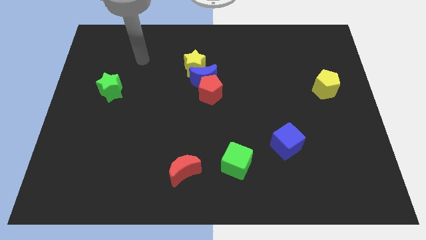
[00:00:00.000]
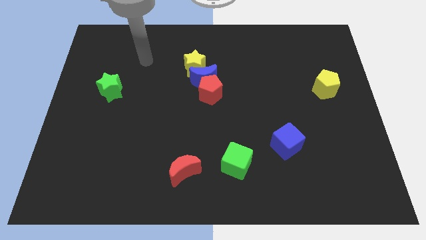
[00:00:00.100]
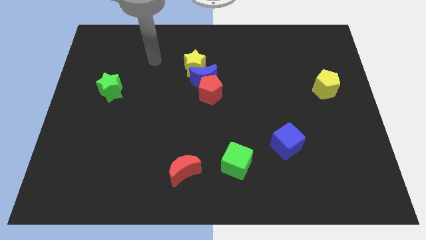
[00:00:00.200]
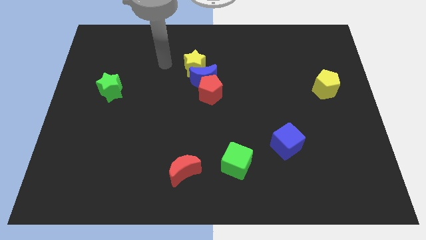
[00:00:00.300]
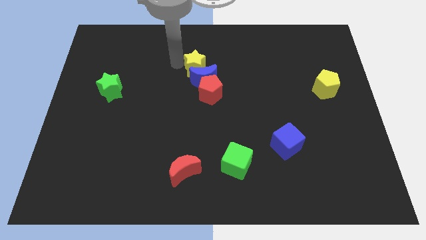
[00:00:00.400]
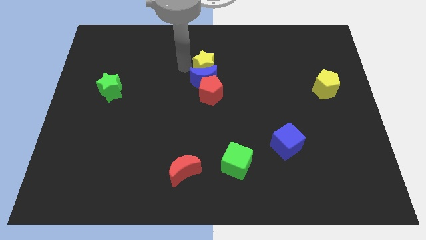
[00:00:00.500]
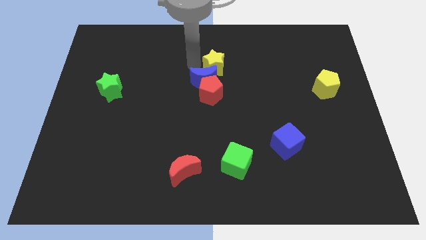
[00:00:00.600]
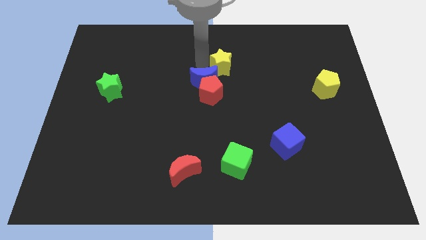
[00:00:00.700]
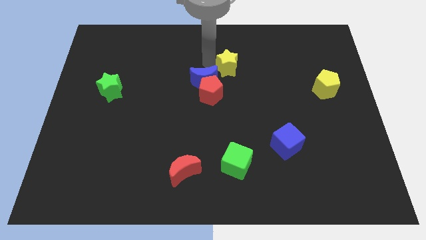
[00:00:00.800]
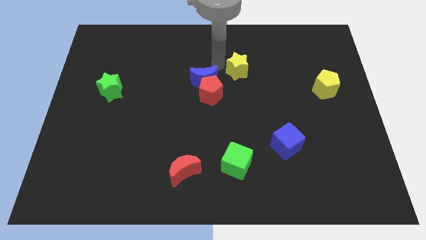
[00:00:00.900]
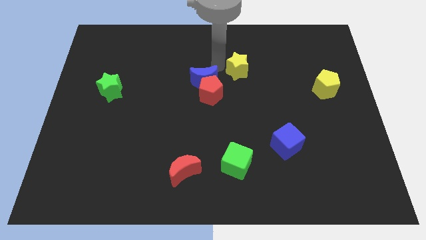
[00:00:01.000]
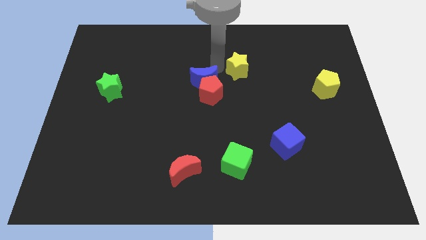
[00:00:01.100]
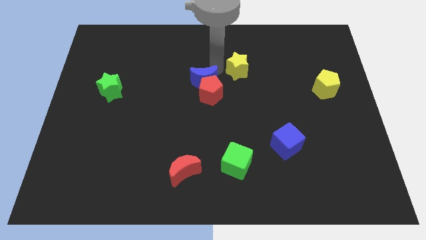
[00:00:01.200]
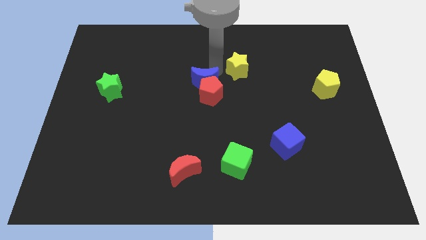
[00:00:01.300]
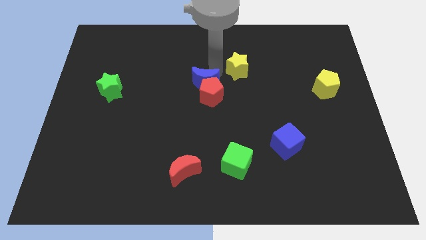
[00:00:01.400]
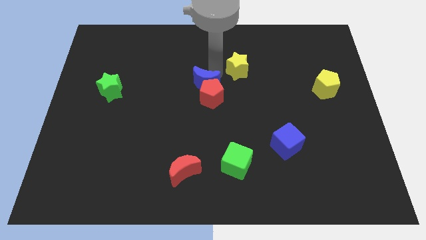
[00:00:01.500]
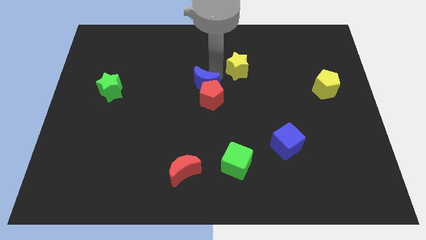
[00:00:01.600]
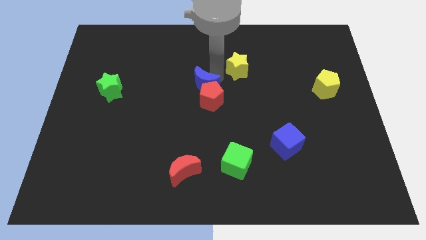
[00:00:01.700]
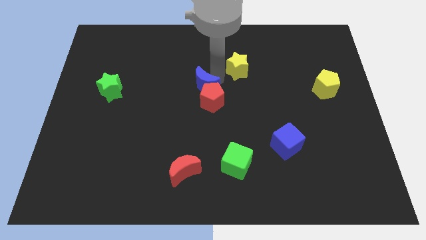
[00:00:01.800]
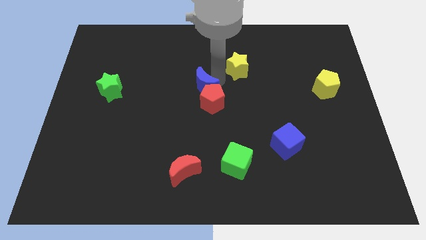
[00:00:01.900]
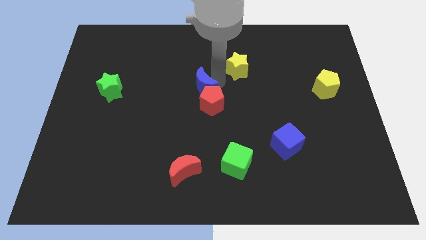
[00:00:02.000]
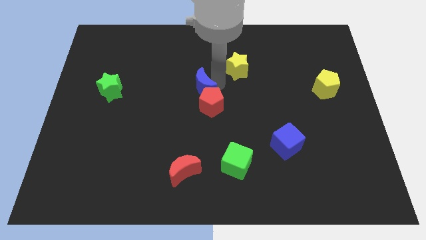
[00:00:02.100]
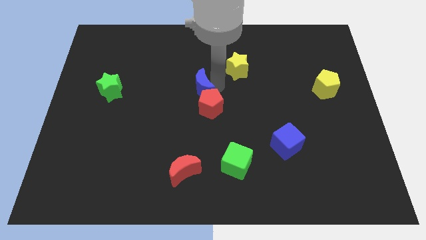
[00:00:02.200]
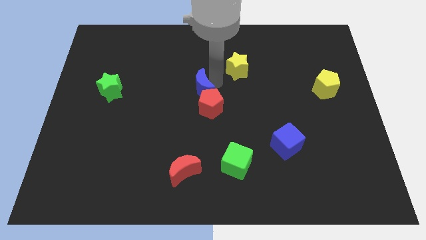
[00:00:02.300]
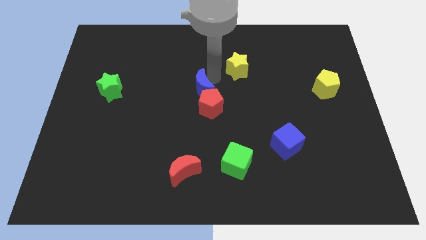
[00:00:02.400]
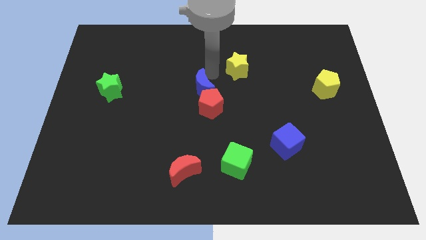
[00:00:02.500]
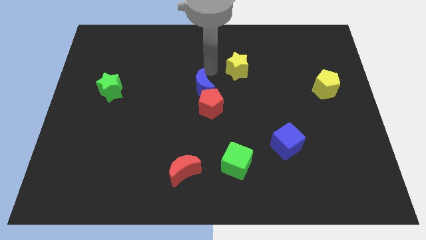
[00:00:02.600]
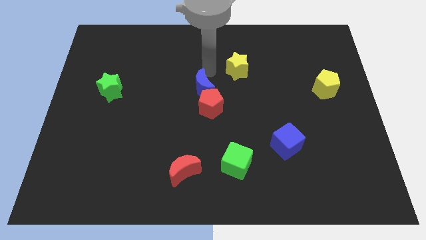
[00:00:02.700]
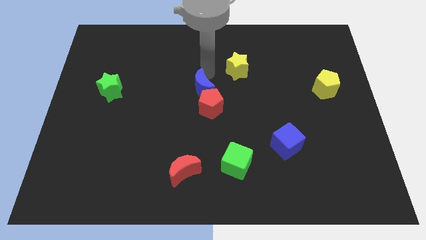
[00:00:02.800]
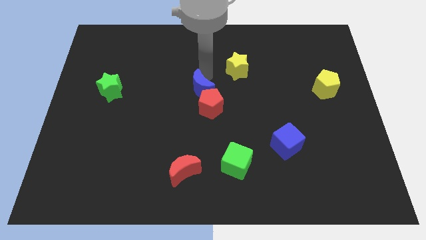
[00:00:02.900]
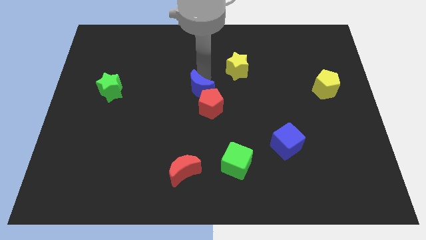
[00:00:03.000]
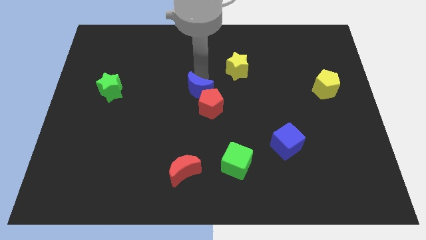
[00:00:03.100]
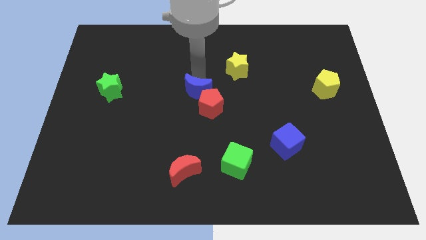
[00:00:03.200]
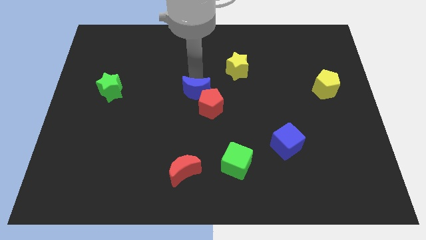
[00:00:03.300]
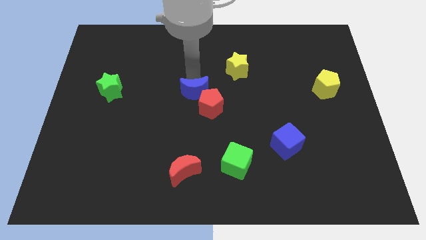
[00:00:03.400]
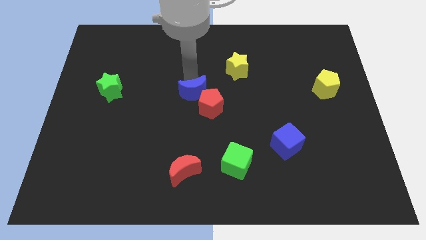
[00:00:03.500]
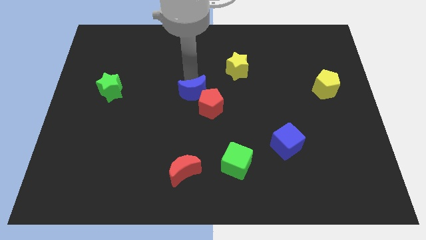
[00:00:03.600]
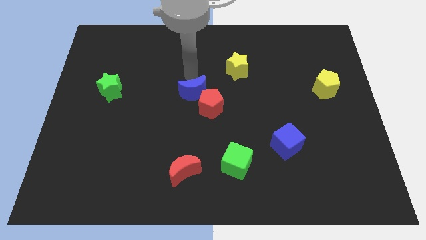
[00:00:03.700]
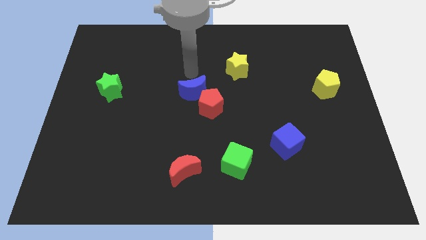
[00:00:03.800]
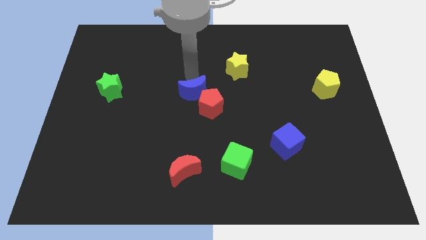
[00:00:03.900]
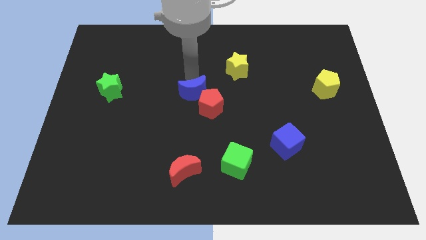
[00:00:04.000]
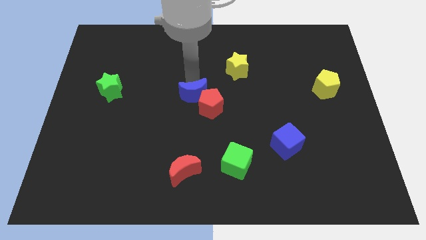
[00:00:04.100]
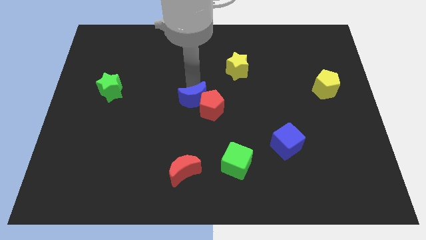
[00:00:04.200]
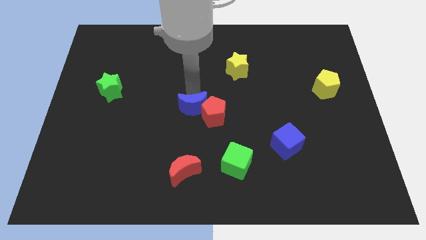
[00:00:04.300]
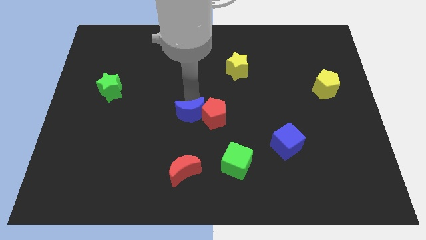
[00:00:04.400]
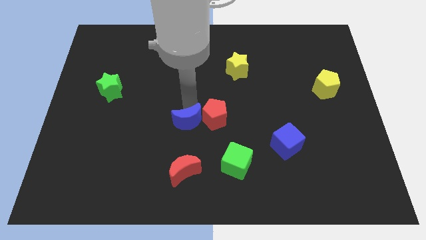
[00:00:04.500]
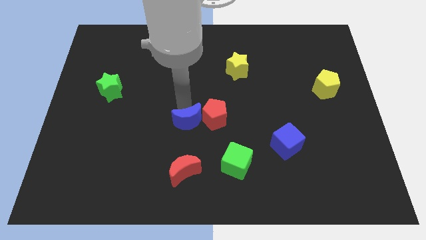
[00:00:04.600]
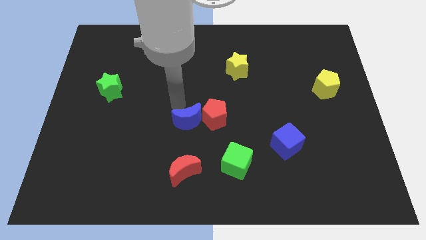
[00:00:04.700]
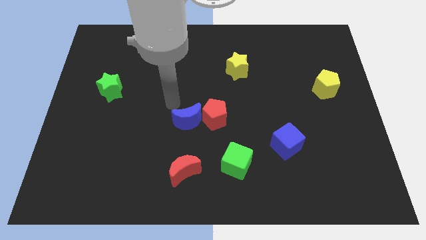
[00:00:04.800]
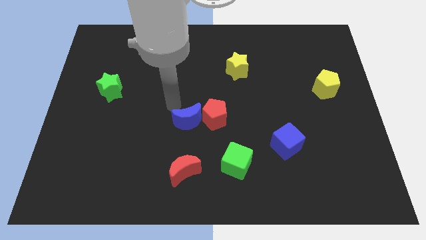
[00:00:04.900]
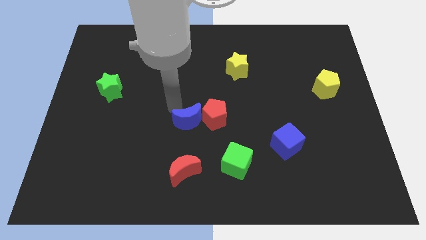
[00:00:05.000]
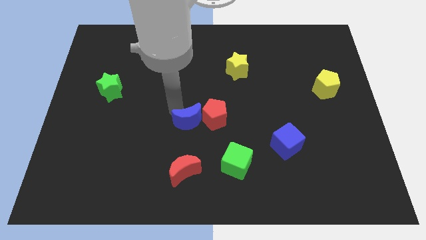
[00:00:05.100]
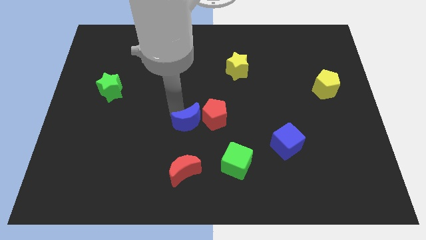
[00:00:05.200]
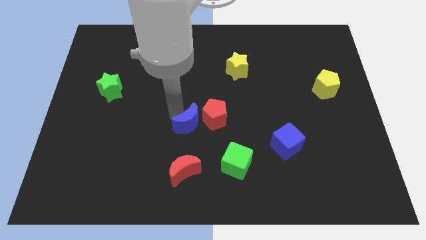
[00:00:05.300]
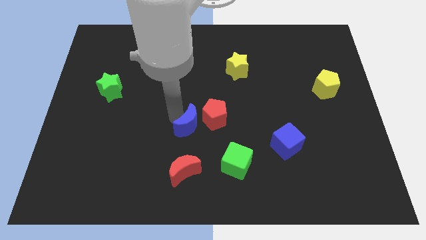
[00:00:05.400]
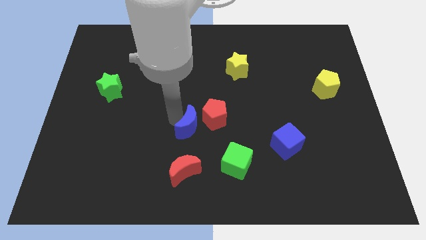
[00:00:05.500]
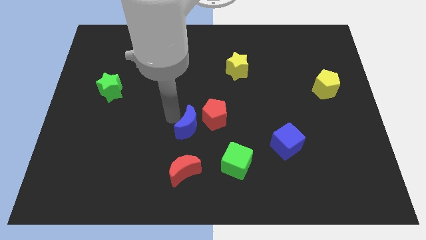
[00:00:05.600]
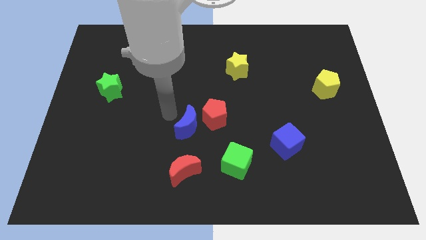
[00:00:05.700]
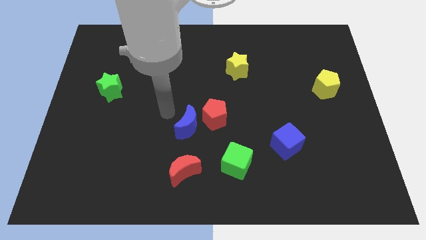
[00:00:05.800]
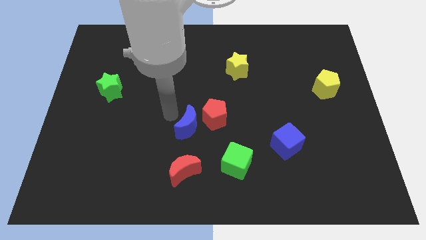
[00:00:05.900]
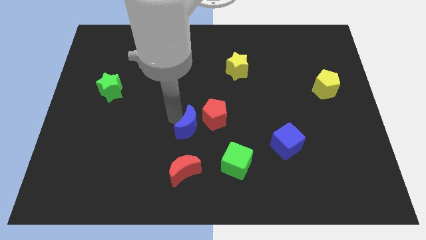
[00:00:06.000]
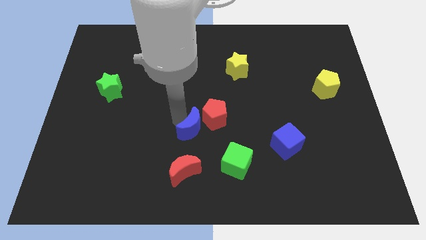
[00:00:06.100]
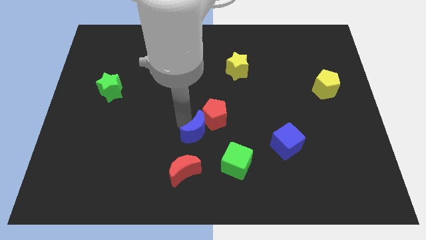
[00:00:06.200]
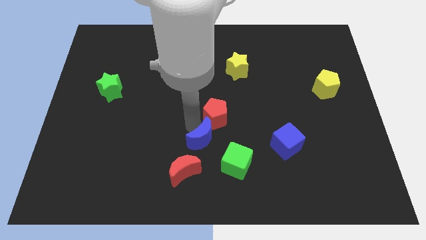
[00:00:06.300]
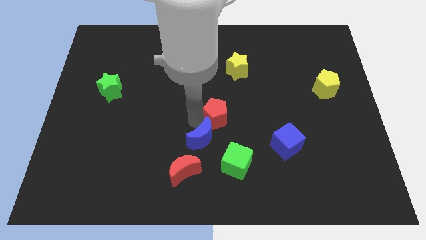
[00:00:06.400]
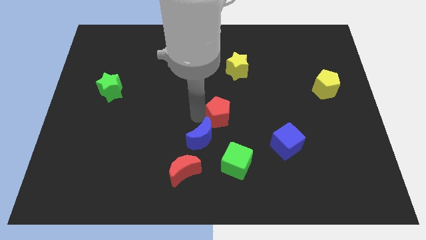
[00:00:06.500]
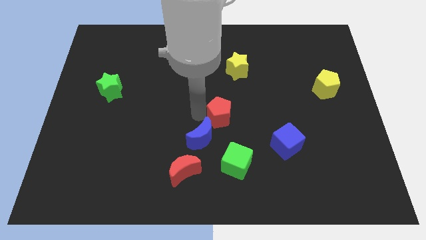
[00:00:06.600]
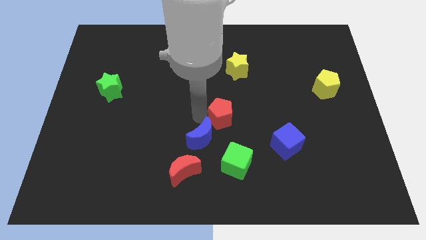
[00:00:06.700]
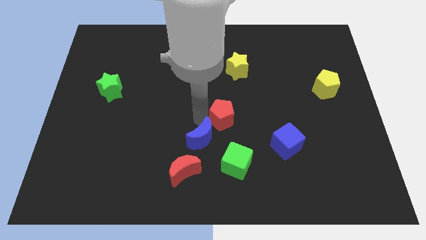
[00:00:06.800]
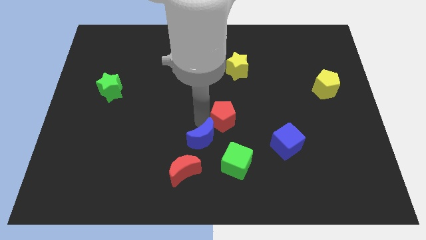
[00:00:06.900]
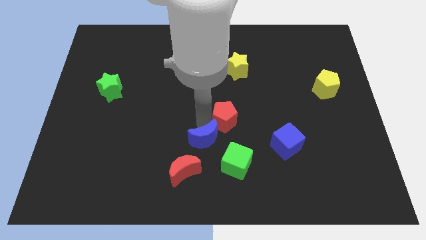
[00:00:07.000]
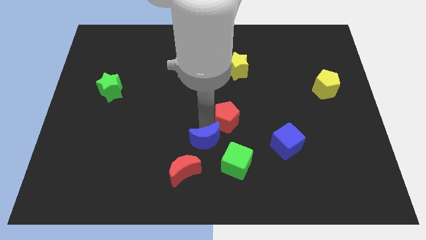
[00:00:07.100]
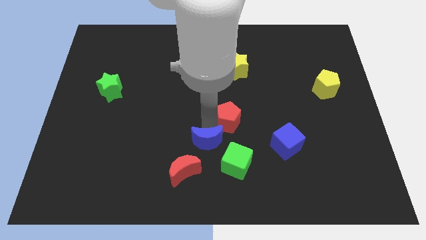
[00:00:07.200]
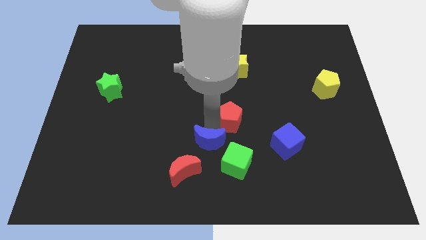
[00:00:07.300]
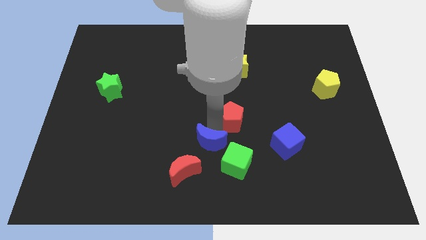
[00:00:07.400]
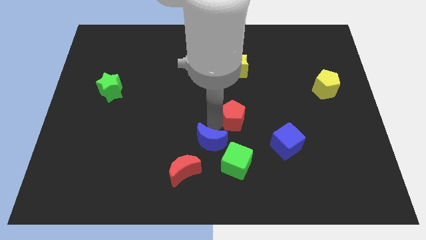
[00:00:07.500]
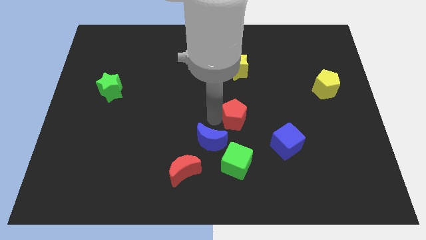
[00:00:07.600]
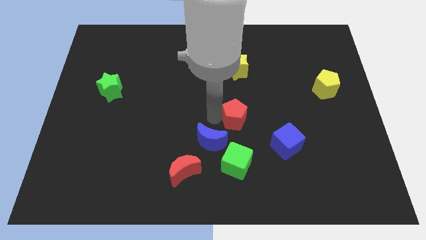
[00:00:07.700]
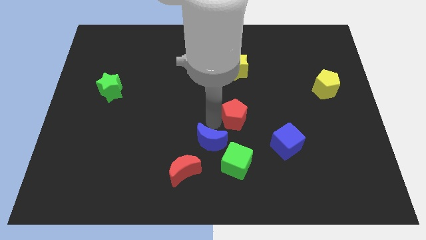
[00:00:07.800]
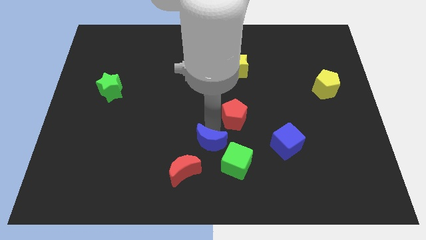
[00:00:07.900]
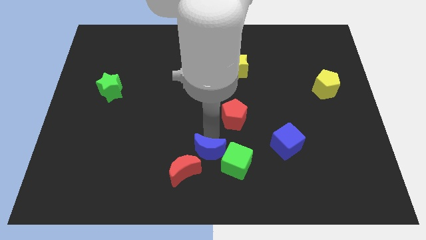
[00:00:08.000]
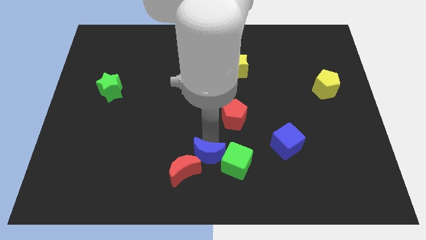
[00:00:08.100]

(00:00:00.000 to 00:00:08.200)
move the blue moon to the bottom side
